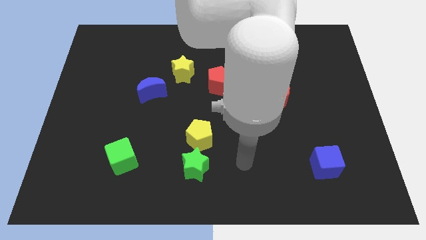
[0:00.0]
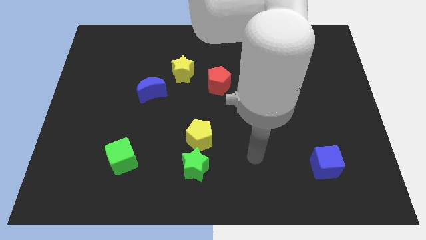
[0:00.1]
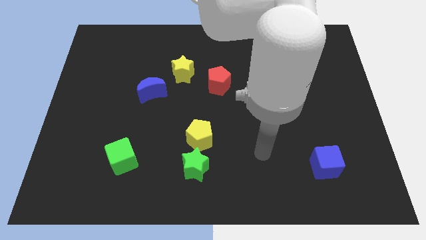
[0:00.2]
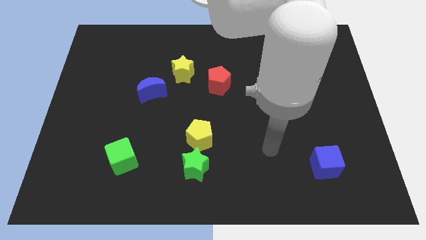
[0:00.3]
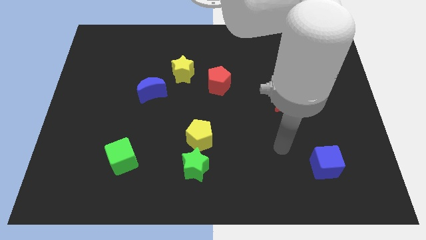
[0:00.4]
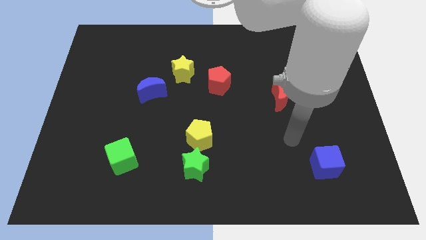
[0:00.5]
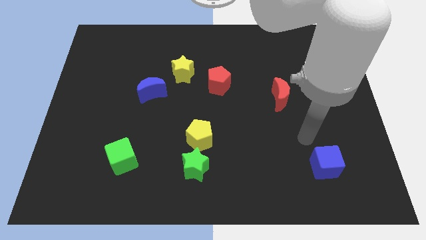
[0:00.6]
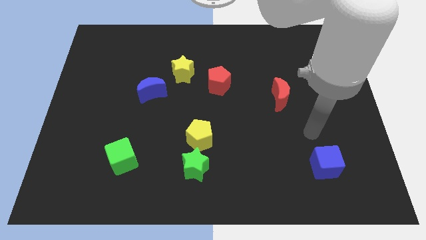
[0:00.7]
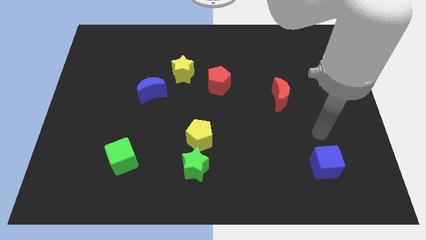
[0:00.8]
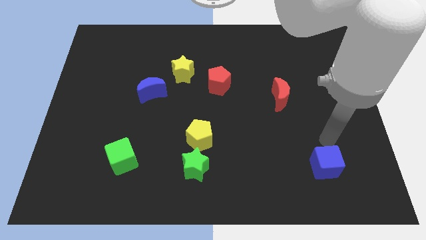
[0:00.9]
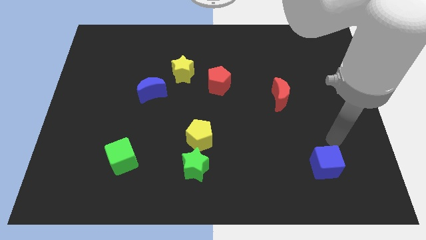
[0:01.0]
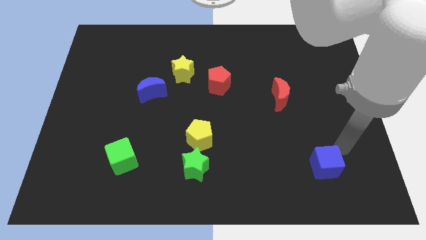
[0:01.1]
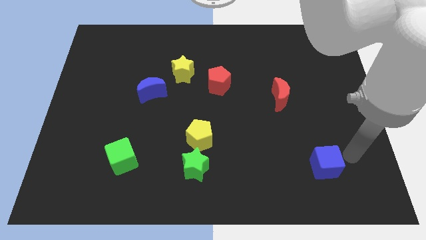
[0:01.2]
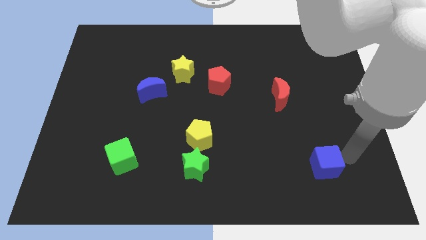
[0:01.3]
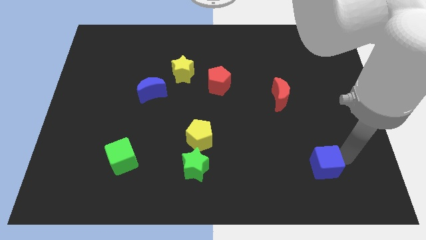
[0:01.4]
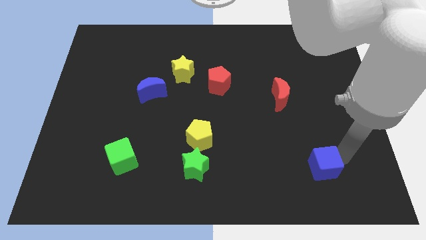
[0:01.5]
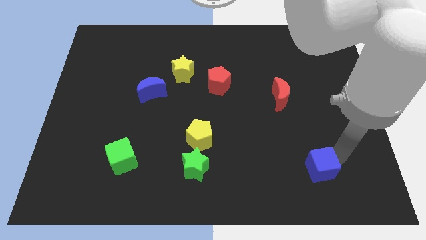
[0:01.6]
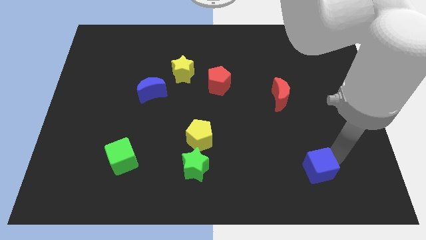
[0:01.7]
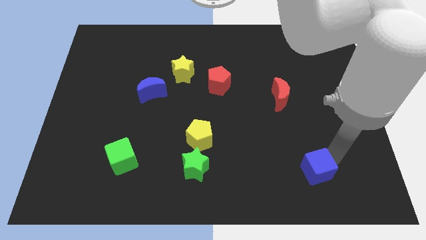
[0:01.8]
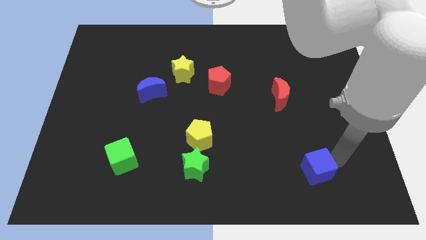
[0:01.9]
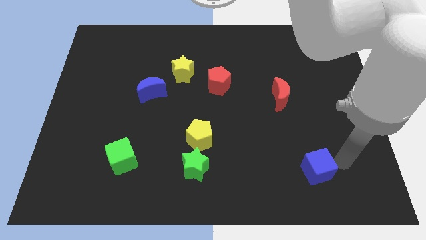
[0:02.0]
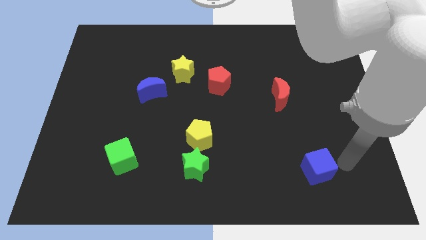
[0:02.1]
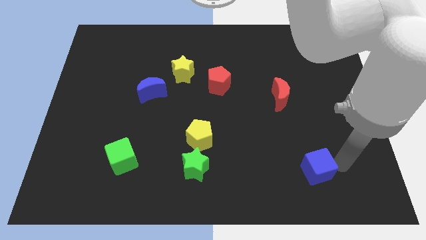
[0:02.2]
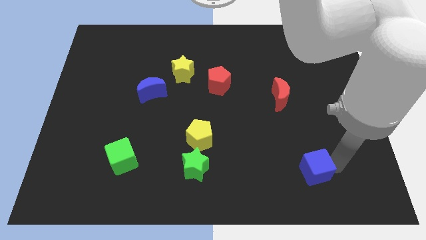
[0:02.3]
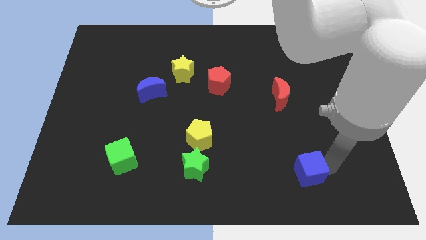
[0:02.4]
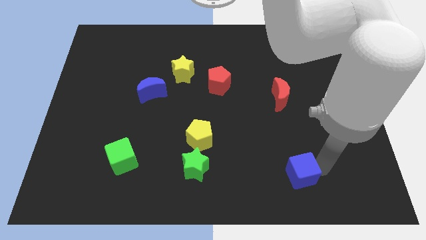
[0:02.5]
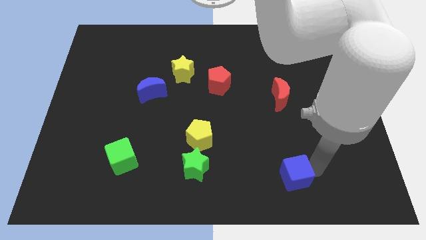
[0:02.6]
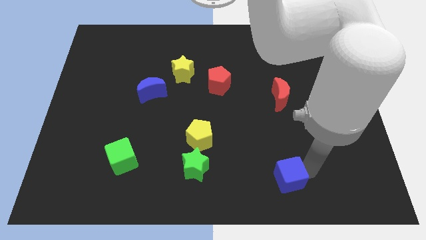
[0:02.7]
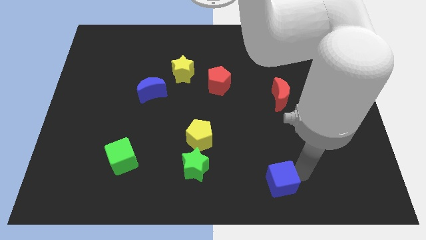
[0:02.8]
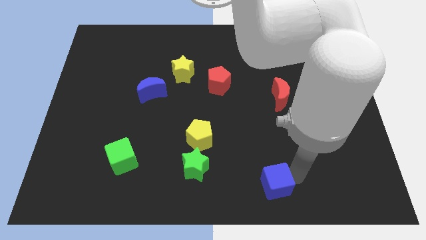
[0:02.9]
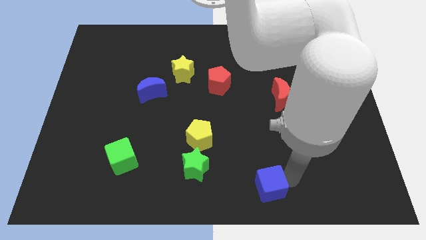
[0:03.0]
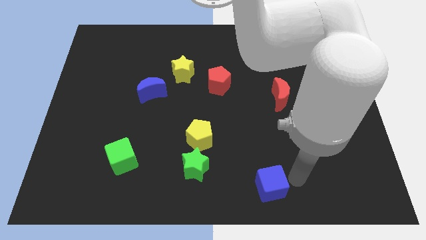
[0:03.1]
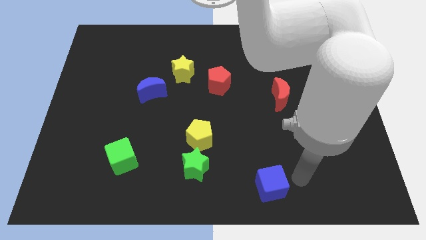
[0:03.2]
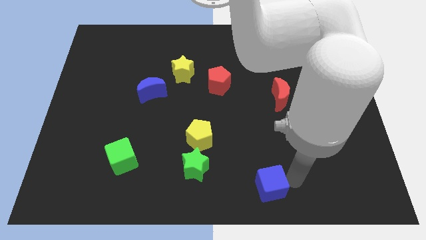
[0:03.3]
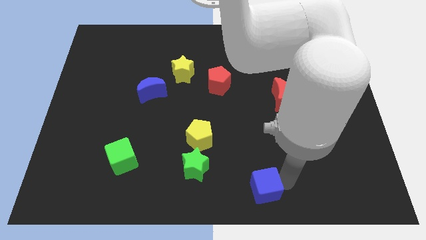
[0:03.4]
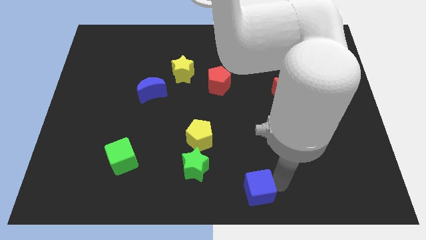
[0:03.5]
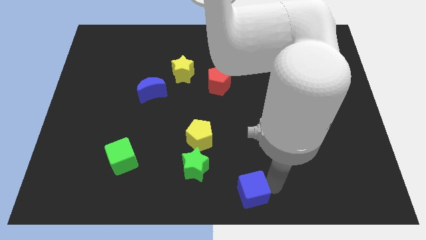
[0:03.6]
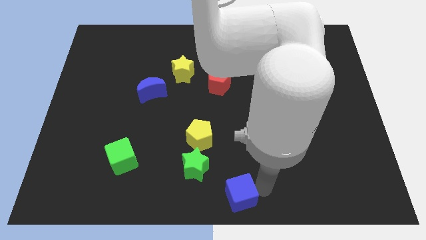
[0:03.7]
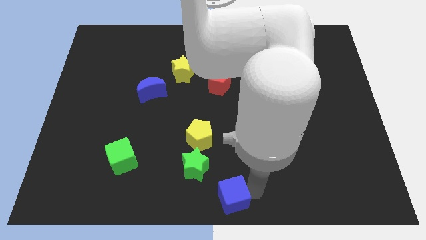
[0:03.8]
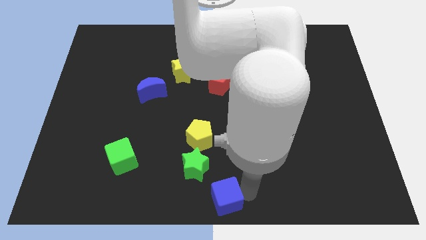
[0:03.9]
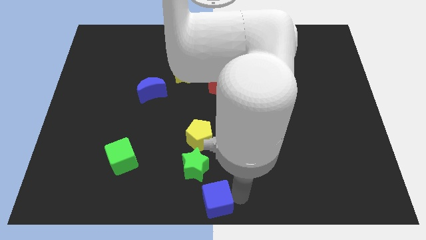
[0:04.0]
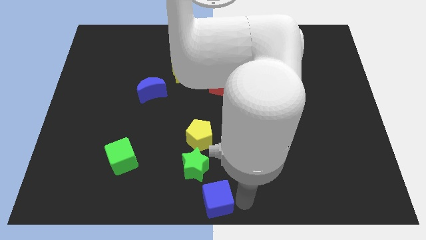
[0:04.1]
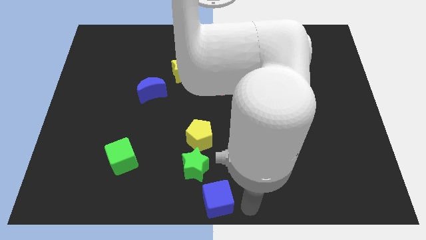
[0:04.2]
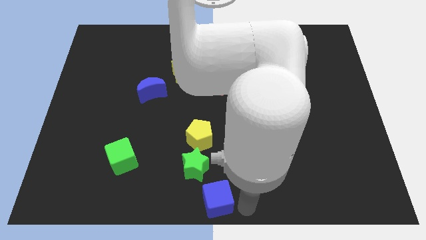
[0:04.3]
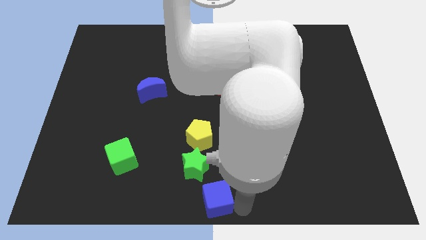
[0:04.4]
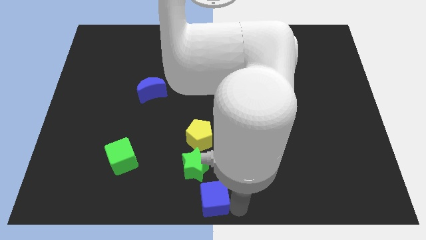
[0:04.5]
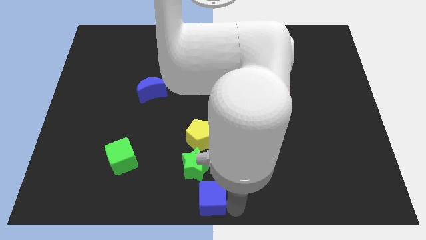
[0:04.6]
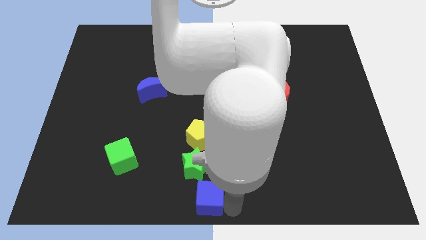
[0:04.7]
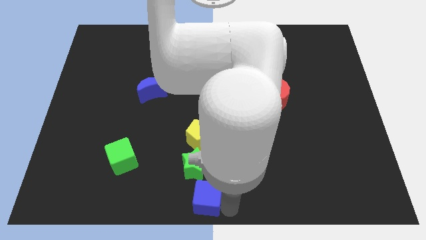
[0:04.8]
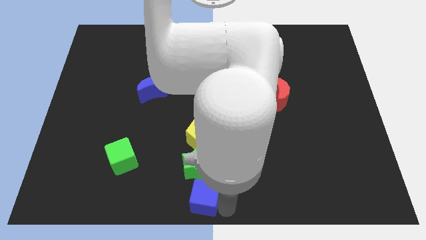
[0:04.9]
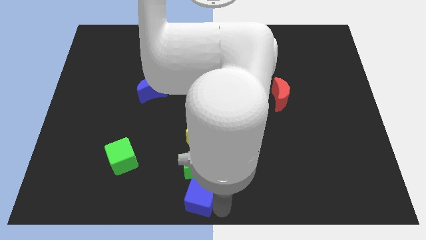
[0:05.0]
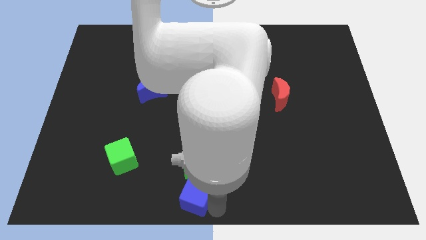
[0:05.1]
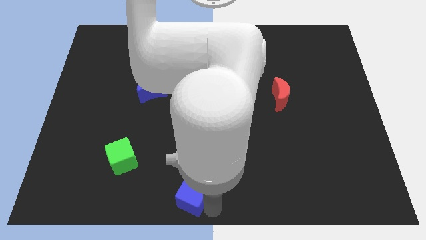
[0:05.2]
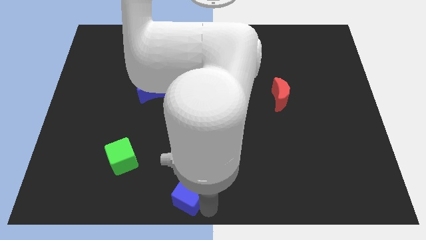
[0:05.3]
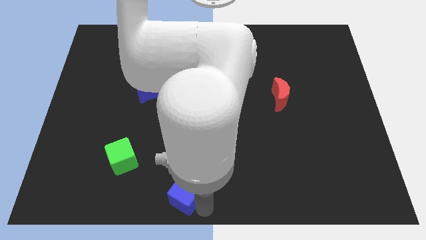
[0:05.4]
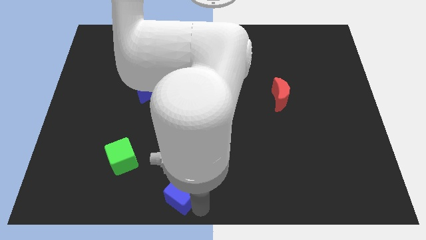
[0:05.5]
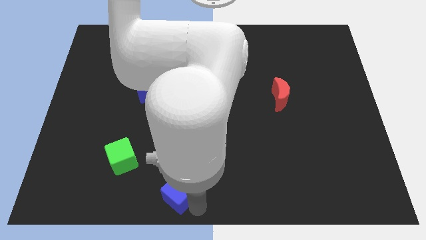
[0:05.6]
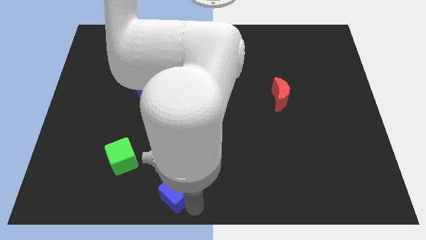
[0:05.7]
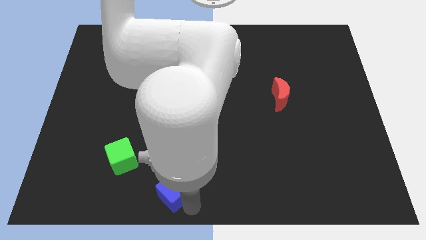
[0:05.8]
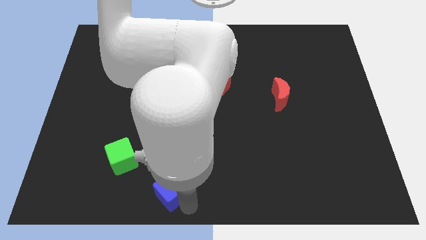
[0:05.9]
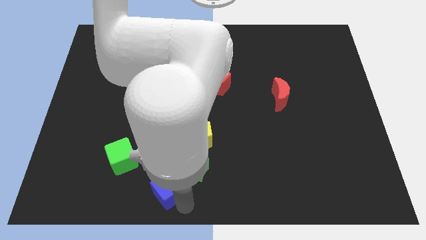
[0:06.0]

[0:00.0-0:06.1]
put the blue cube diagonally down and to the right of the green cube
